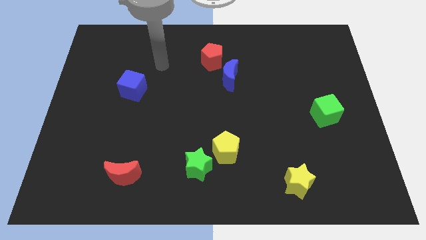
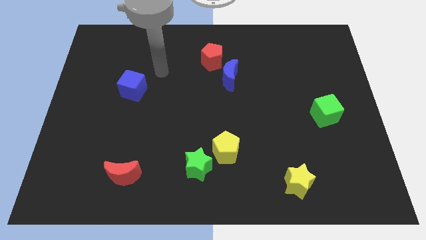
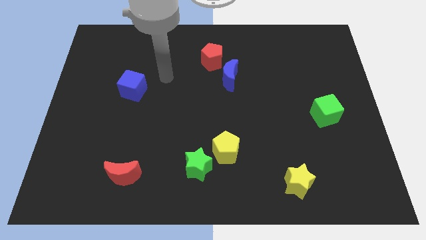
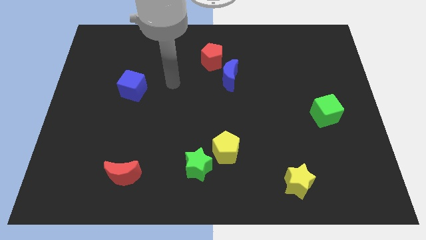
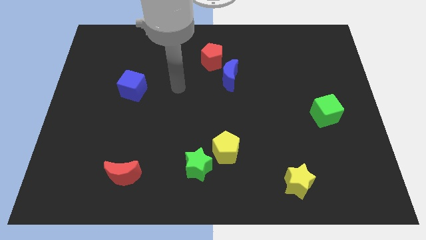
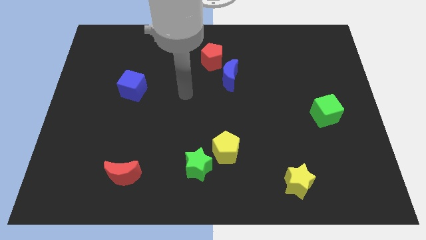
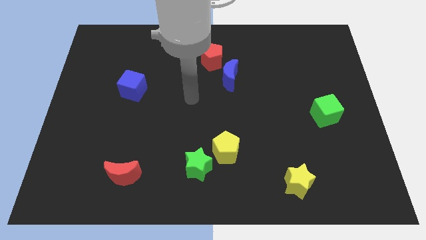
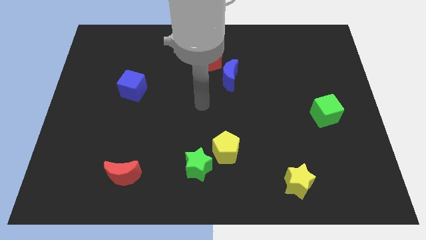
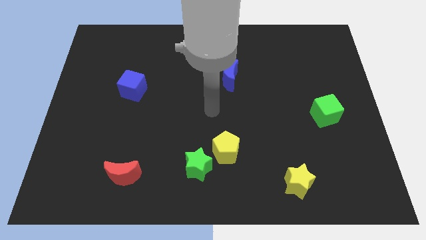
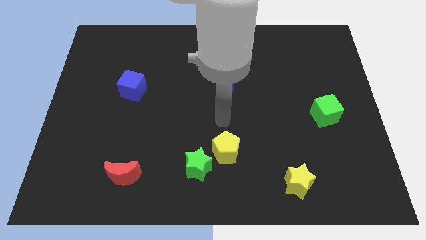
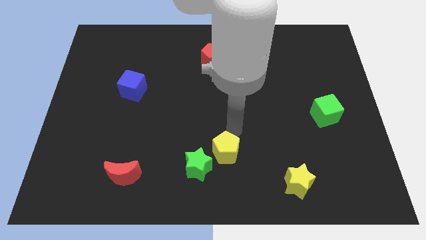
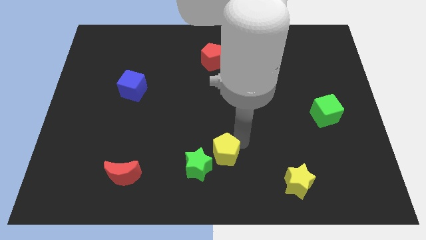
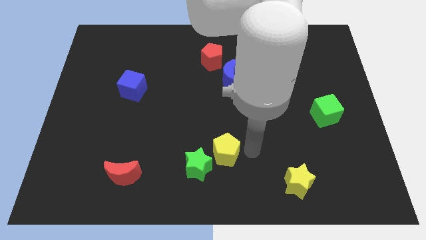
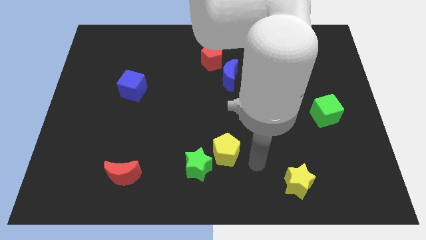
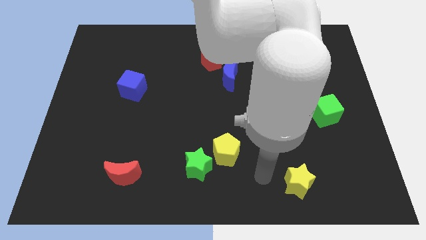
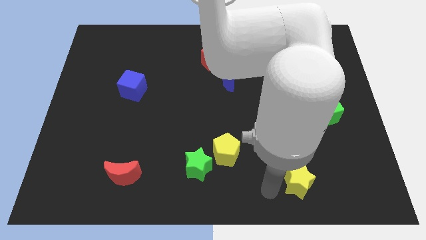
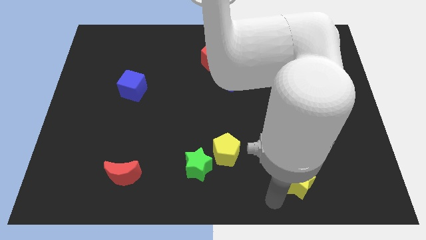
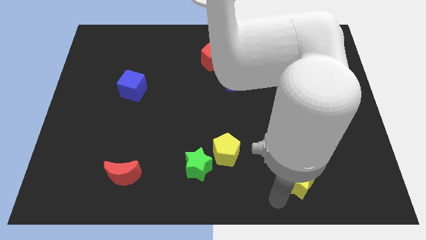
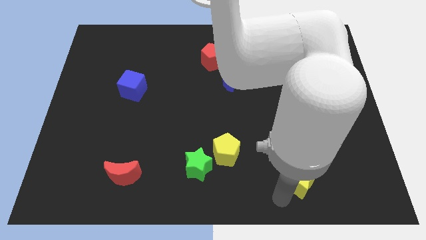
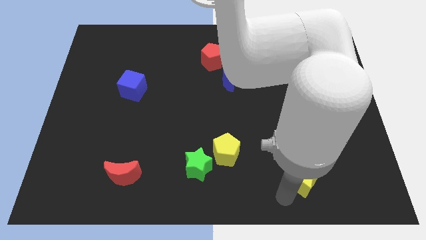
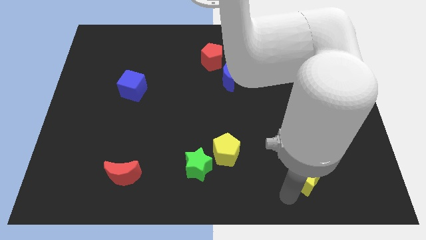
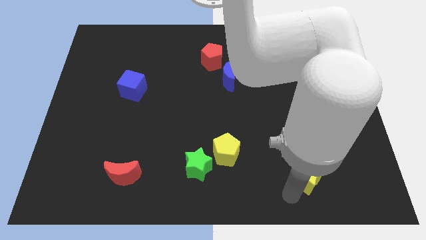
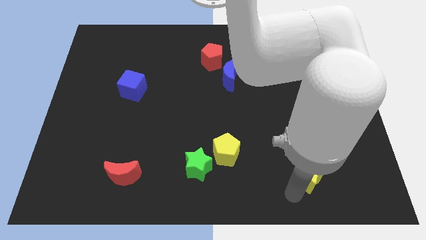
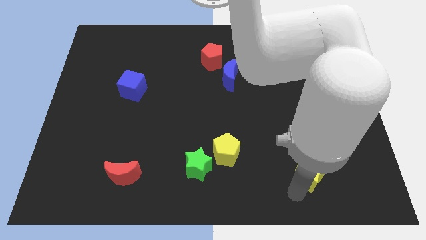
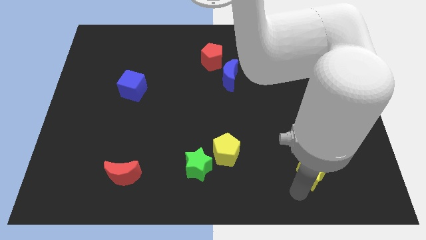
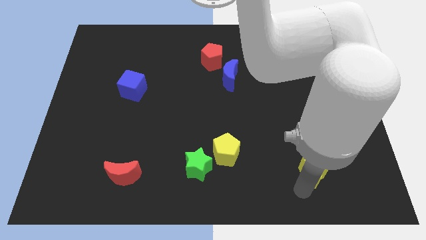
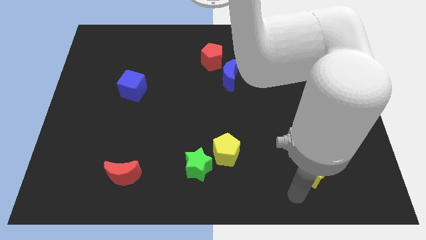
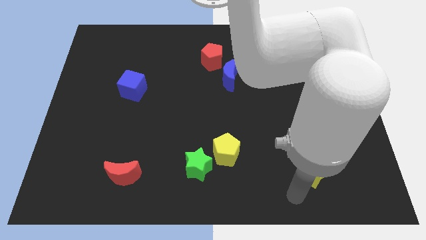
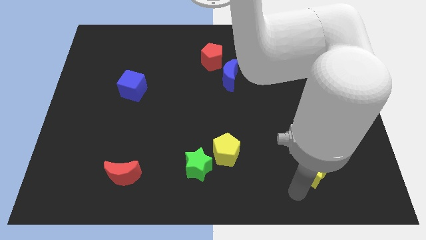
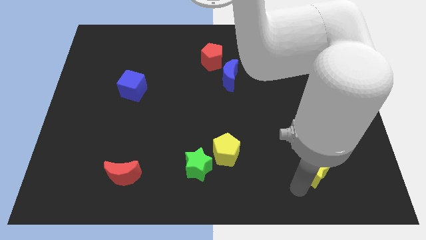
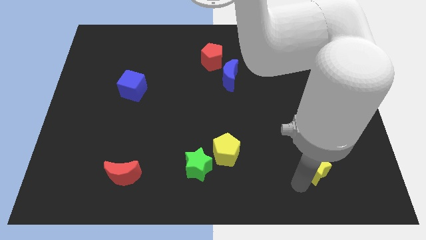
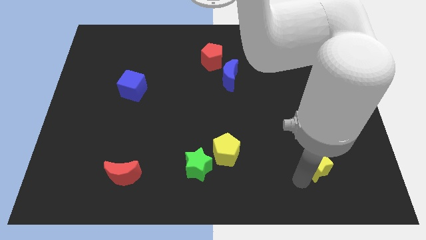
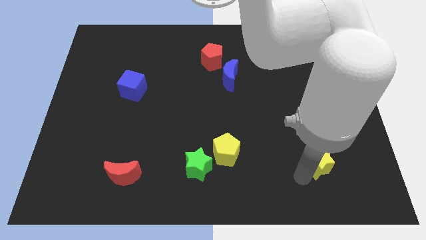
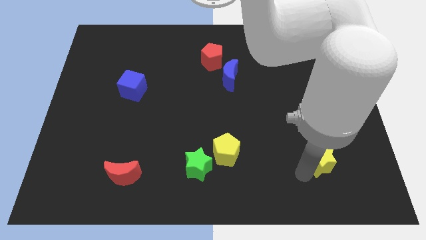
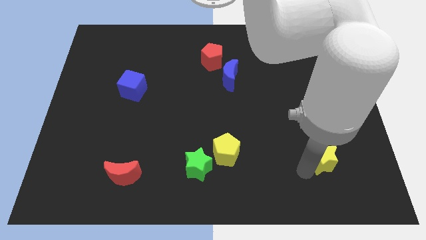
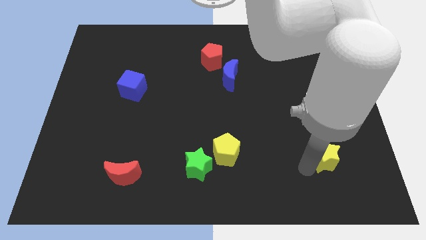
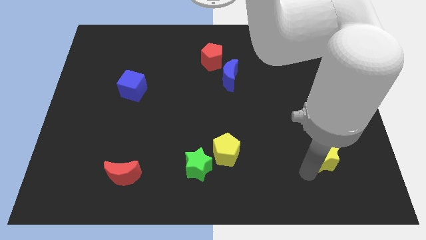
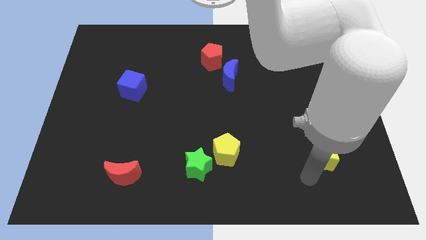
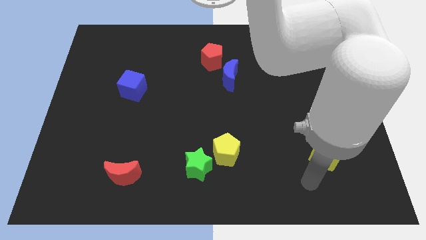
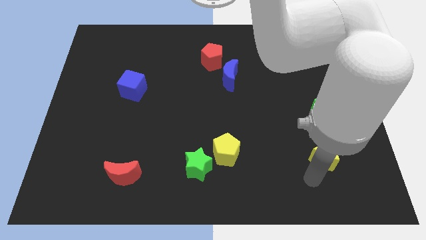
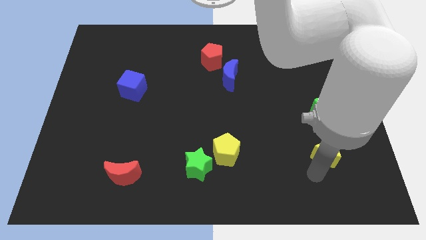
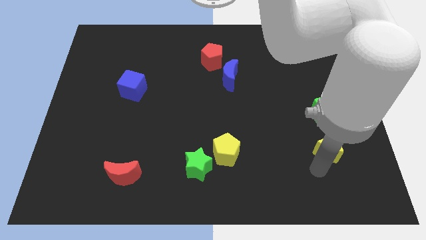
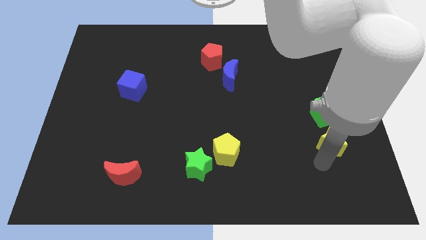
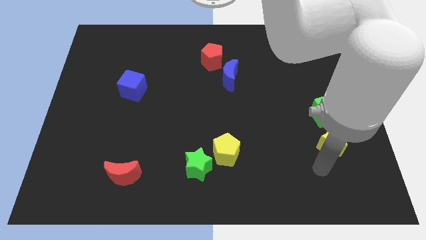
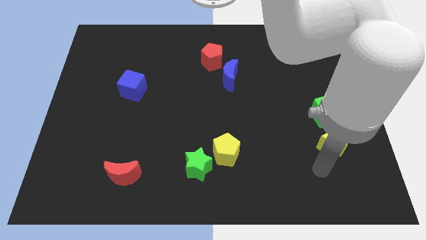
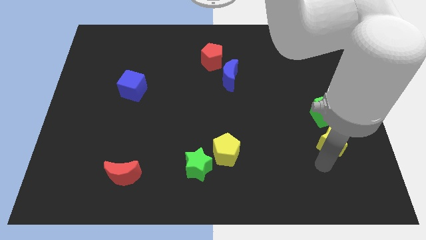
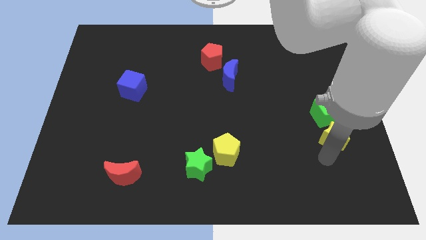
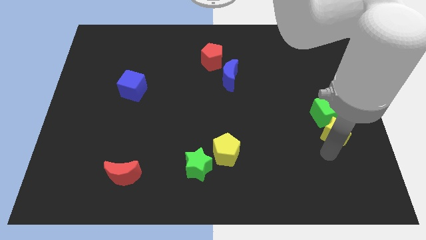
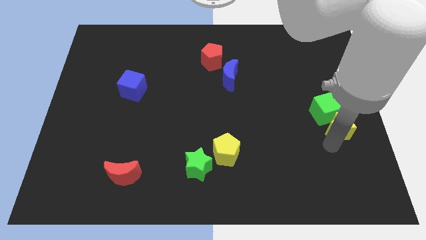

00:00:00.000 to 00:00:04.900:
slide the yellow star to the right side of the board

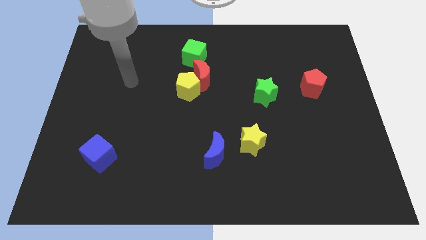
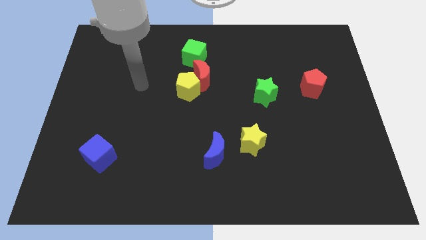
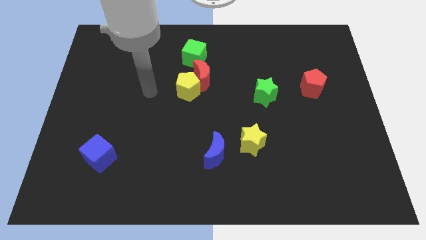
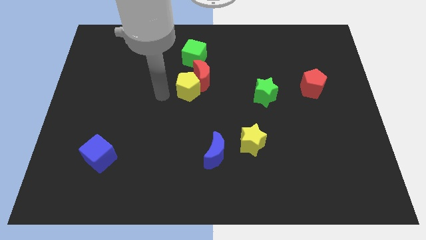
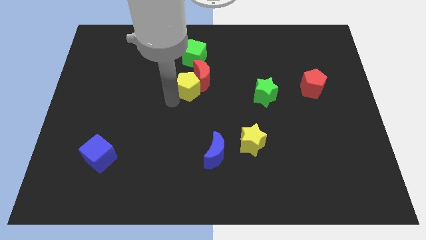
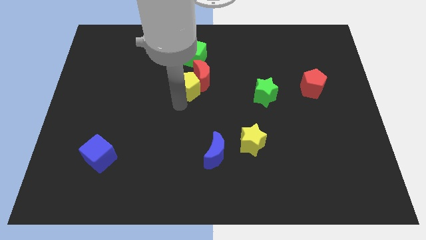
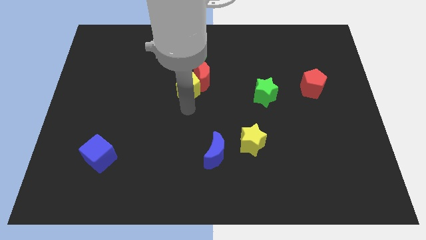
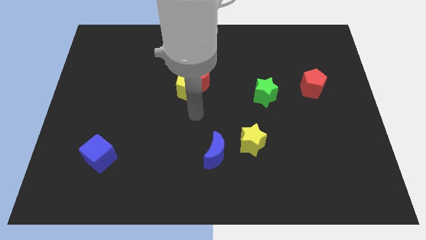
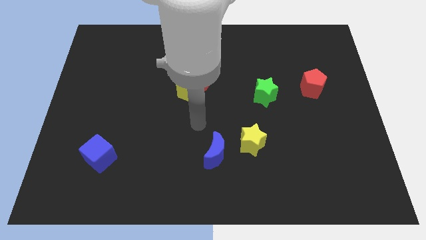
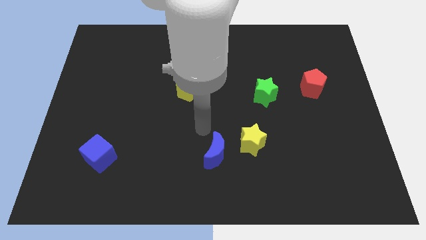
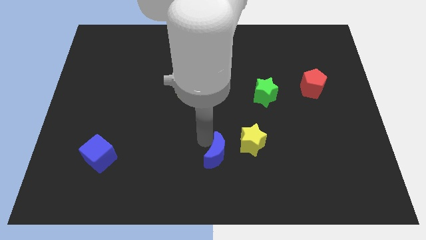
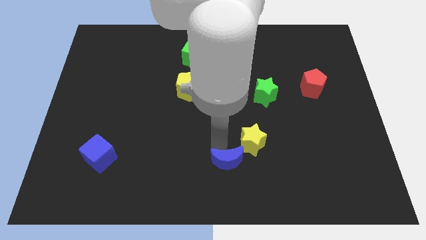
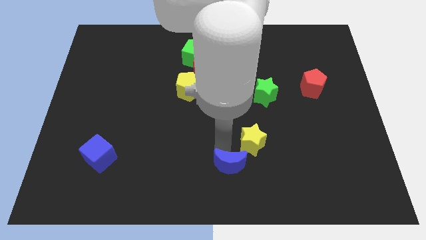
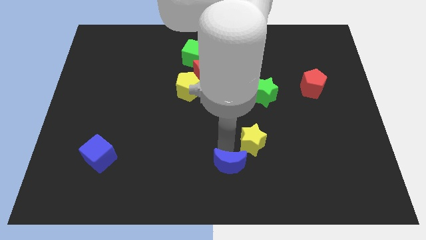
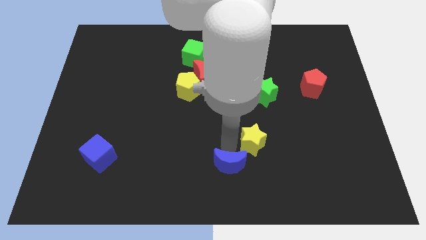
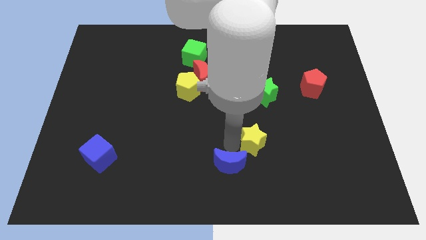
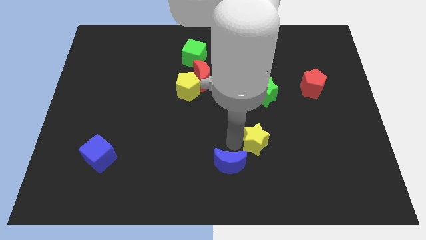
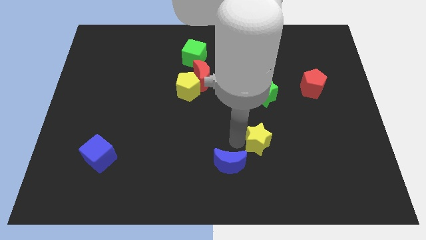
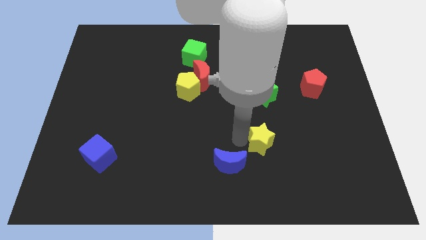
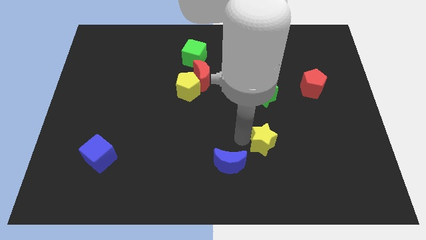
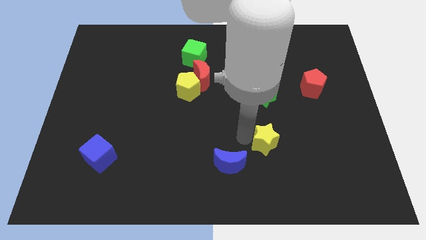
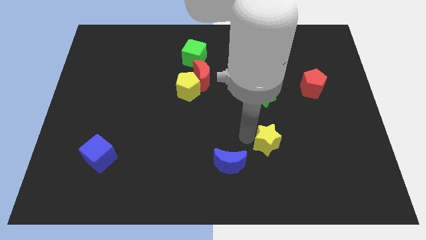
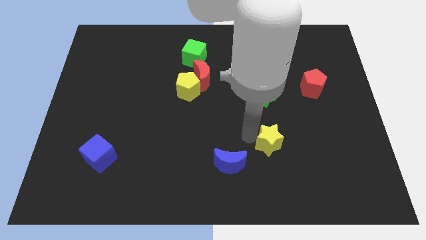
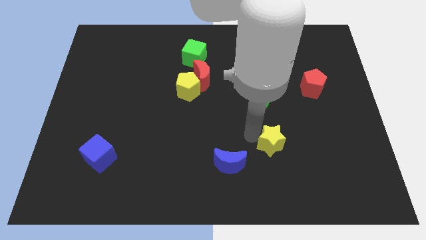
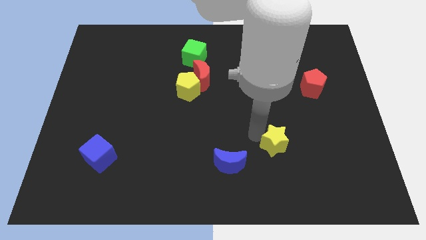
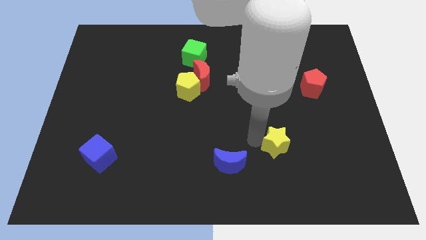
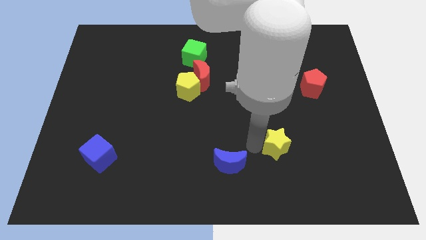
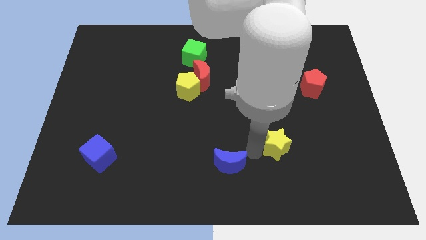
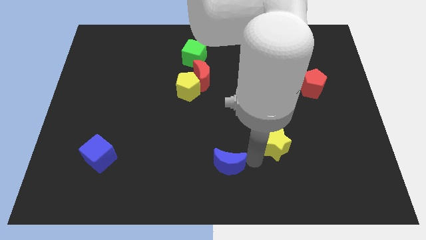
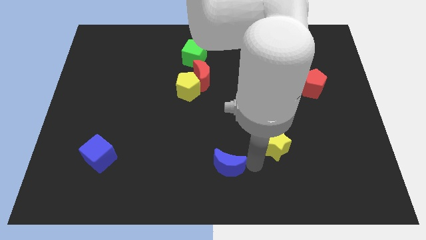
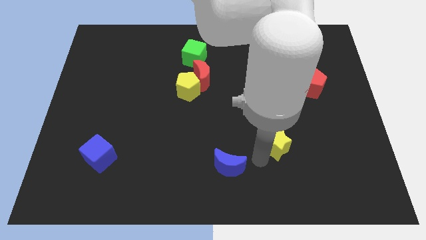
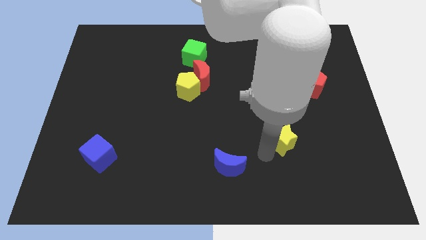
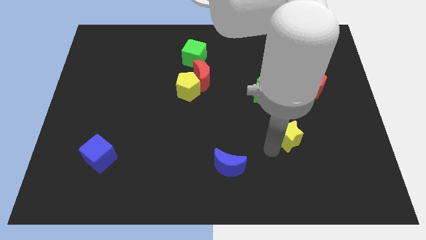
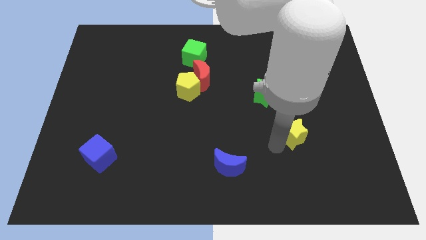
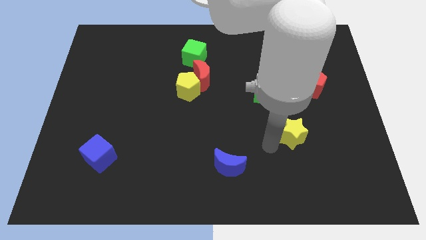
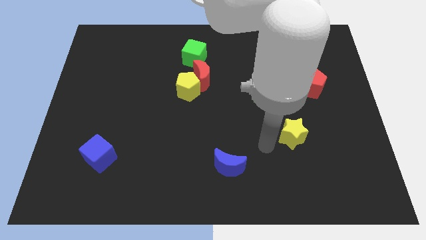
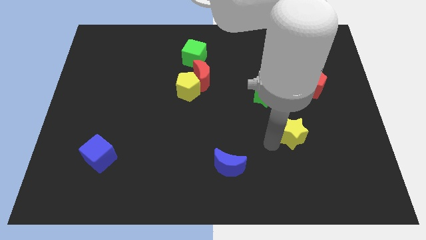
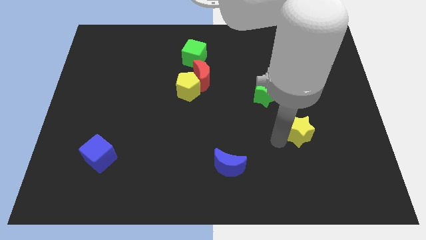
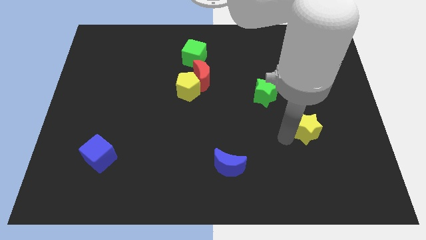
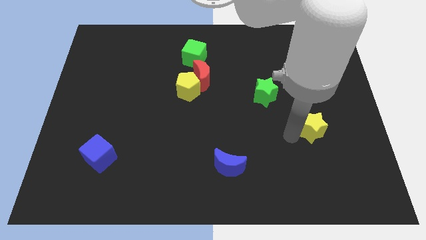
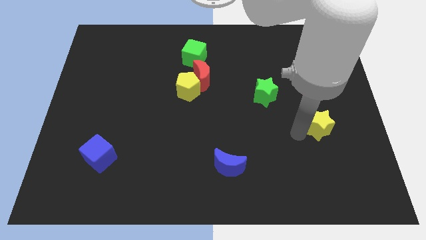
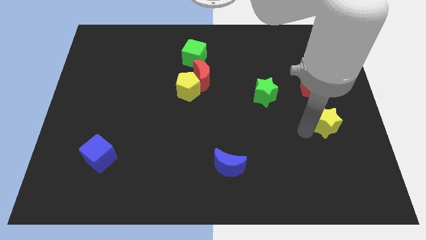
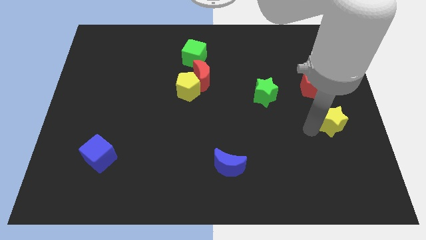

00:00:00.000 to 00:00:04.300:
slide the yellow star to the center right
